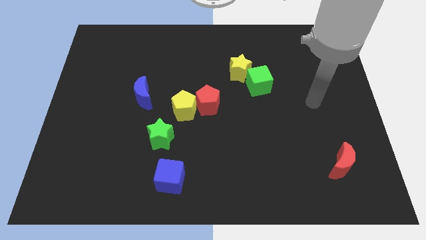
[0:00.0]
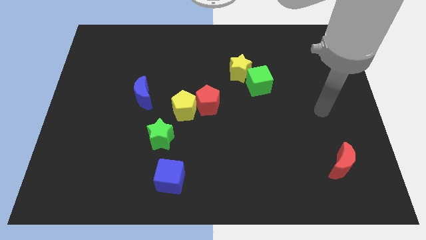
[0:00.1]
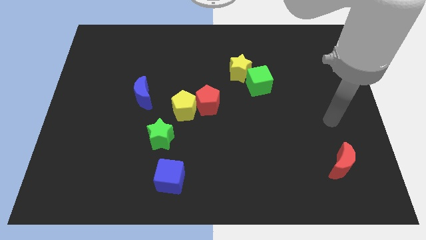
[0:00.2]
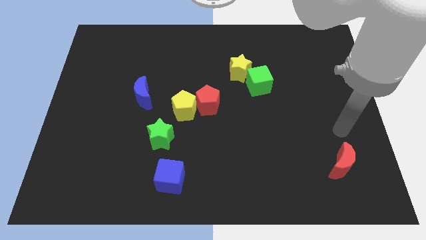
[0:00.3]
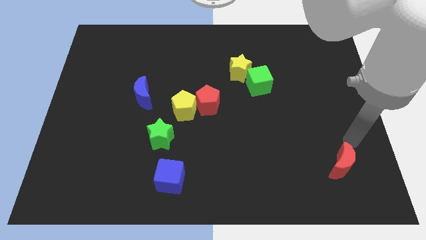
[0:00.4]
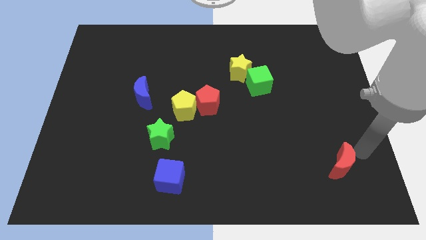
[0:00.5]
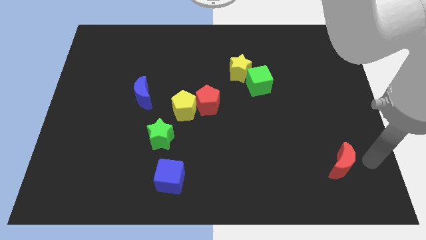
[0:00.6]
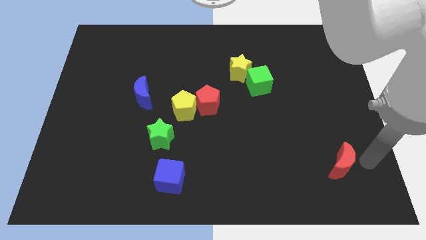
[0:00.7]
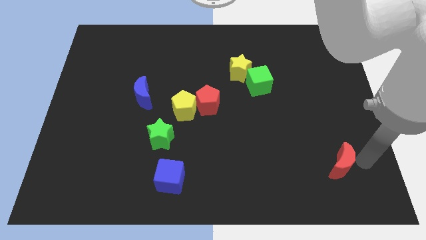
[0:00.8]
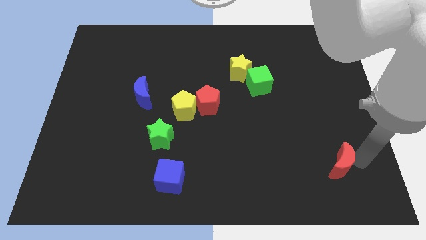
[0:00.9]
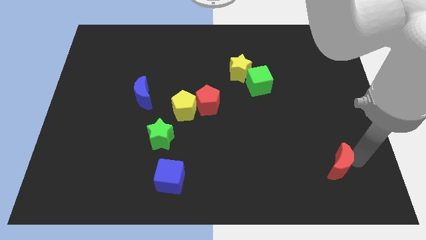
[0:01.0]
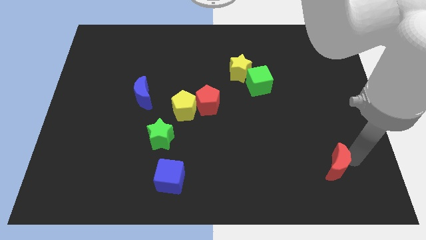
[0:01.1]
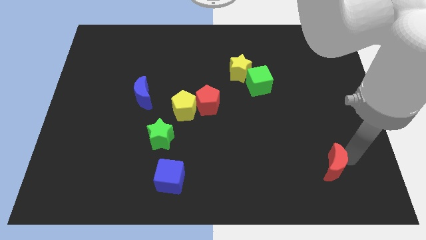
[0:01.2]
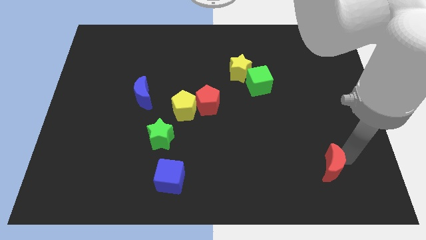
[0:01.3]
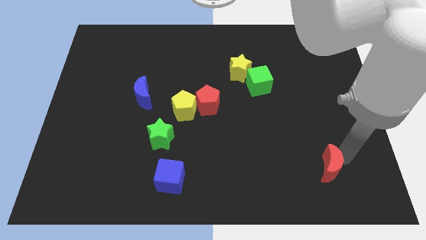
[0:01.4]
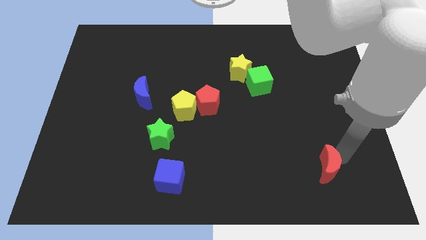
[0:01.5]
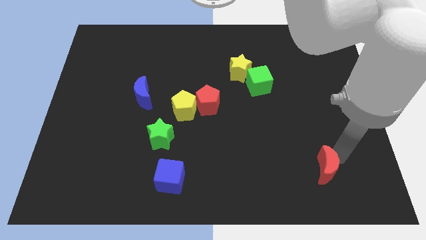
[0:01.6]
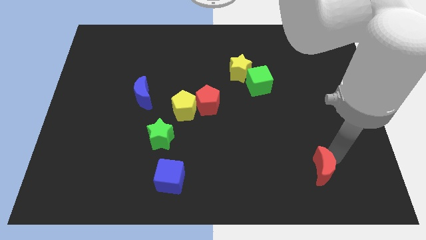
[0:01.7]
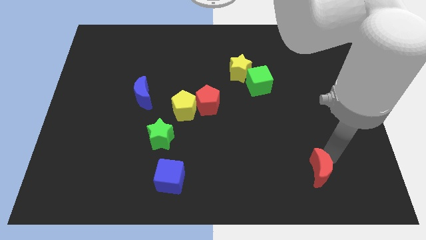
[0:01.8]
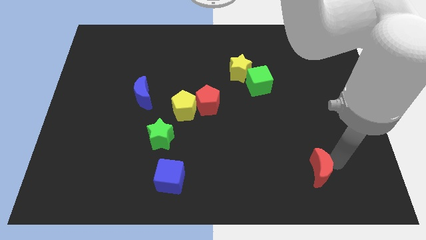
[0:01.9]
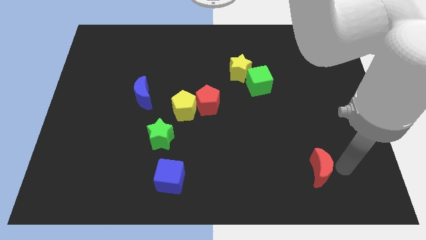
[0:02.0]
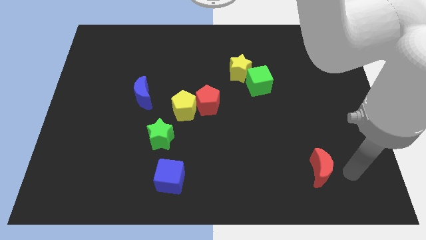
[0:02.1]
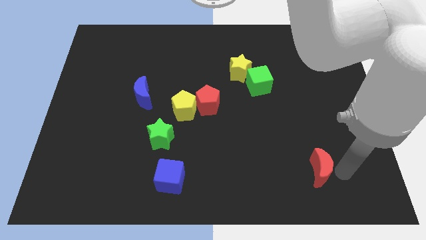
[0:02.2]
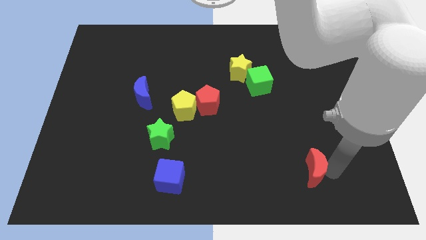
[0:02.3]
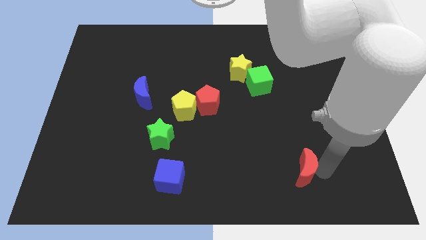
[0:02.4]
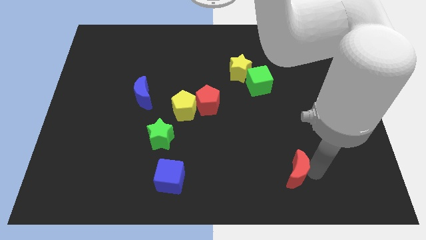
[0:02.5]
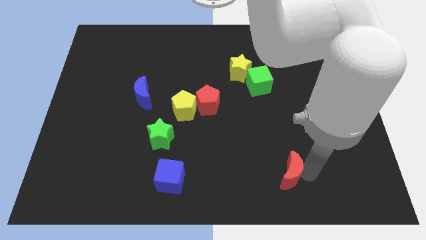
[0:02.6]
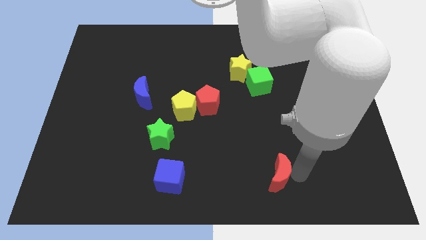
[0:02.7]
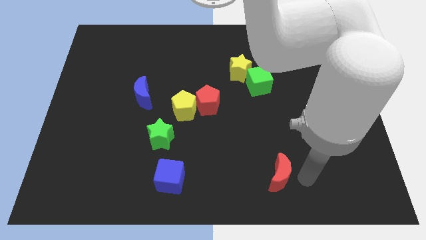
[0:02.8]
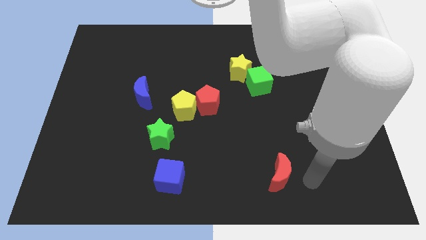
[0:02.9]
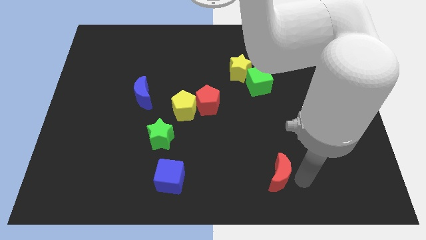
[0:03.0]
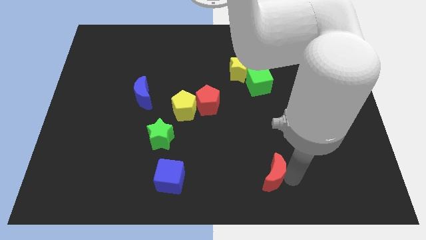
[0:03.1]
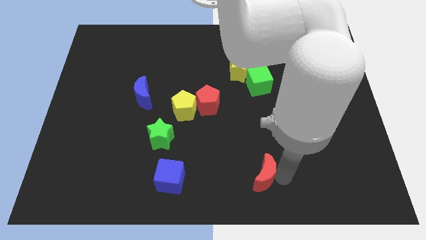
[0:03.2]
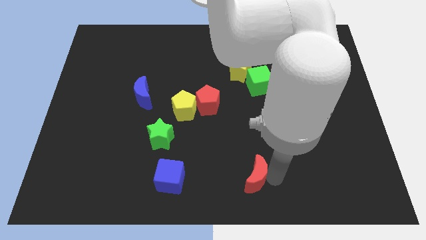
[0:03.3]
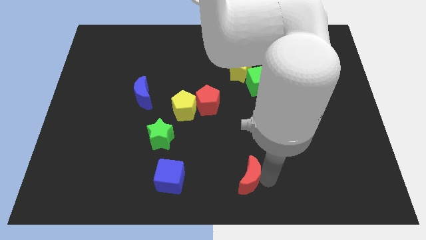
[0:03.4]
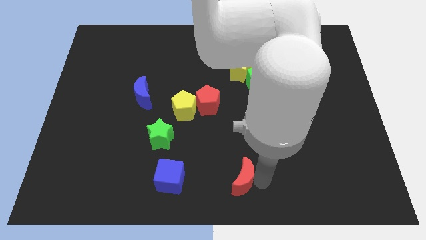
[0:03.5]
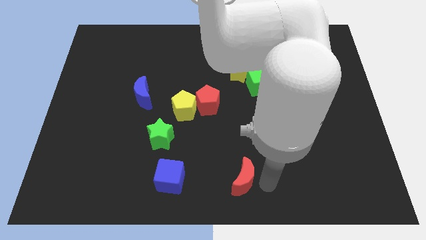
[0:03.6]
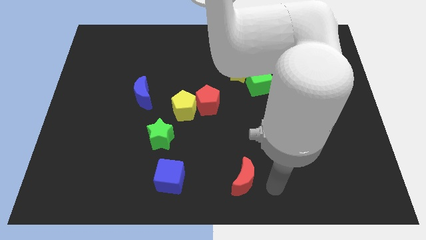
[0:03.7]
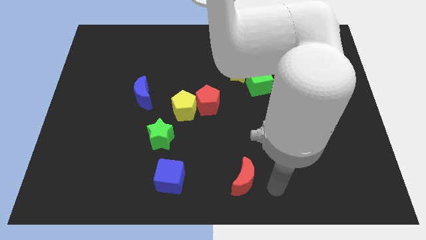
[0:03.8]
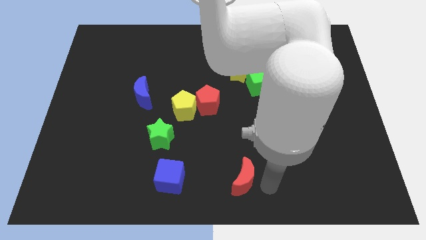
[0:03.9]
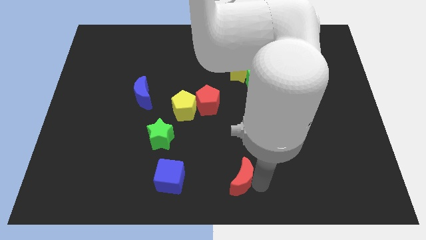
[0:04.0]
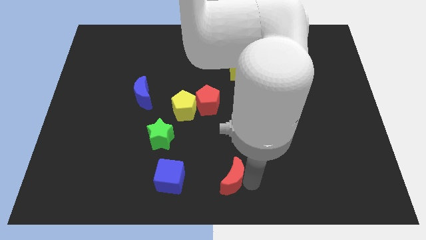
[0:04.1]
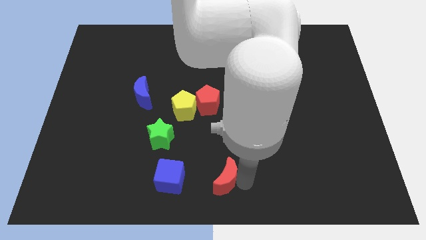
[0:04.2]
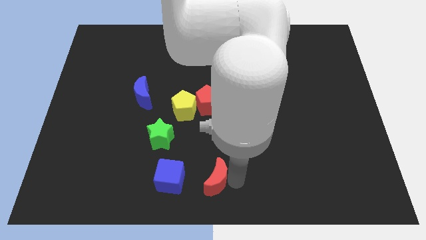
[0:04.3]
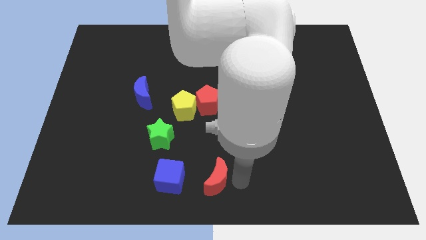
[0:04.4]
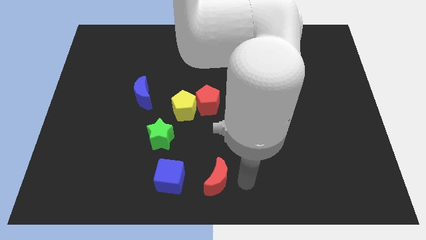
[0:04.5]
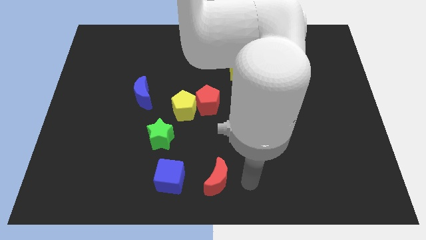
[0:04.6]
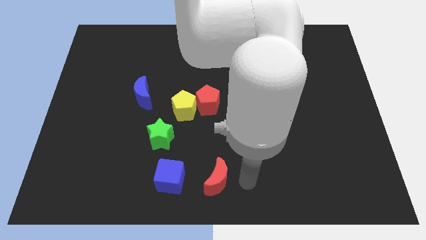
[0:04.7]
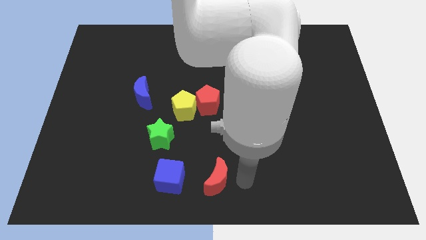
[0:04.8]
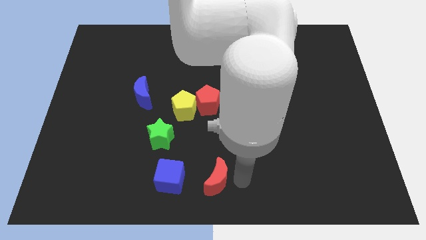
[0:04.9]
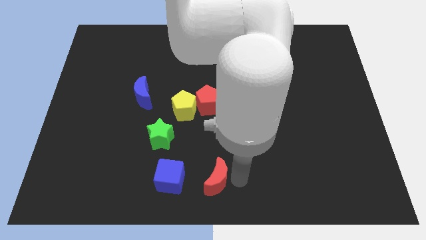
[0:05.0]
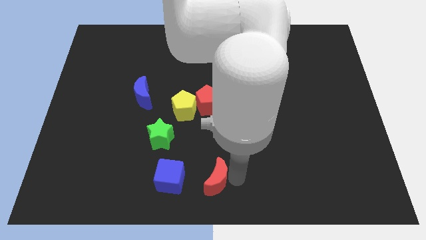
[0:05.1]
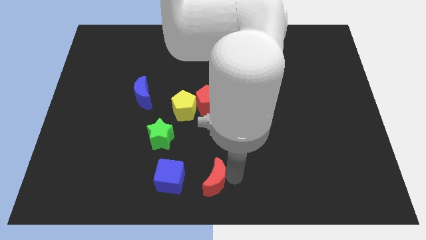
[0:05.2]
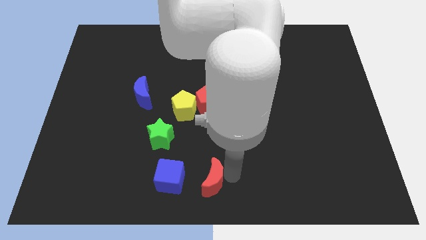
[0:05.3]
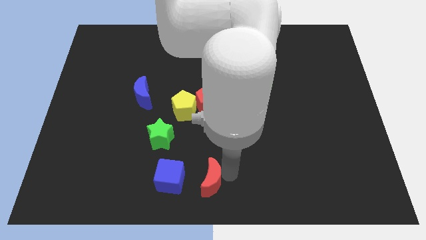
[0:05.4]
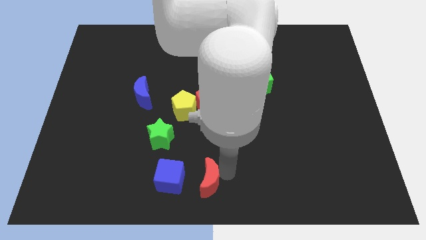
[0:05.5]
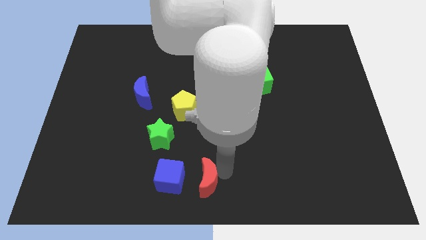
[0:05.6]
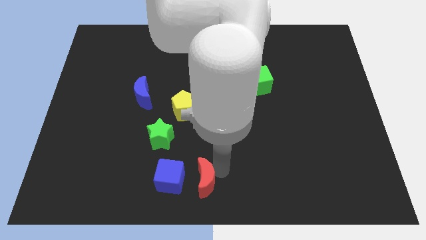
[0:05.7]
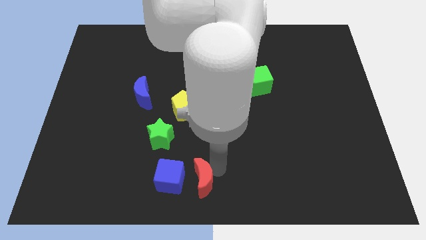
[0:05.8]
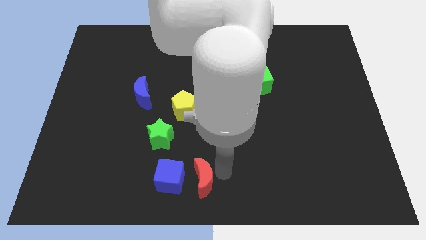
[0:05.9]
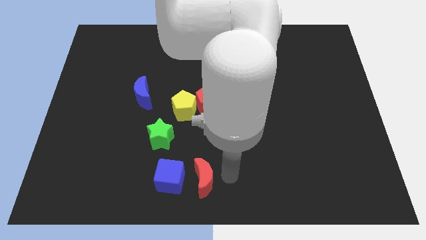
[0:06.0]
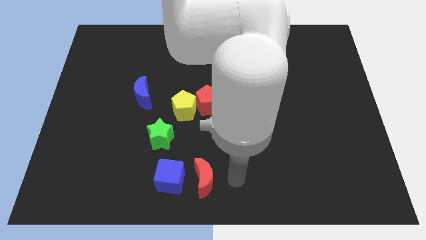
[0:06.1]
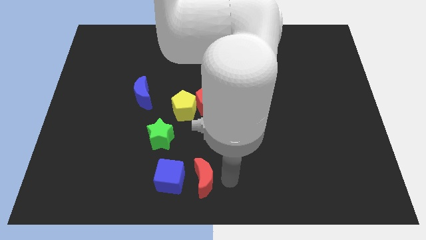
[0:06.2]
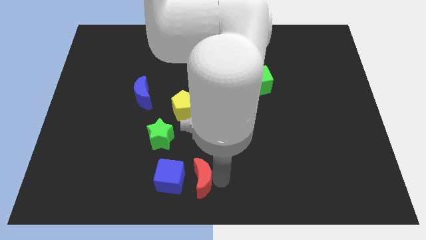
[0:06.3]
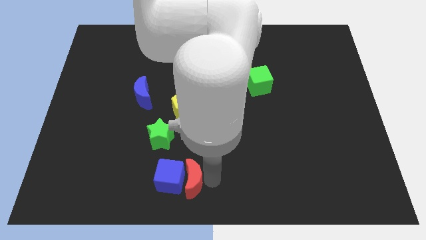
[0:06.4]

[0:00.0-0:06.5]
move the red moon towards the blue cube

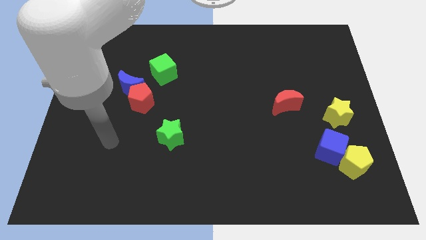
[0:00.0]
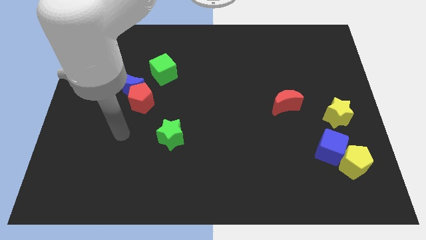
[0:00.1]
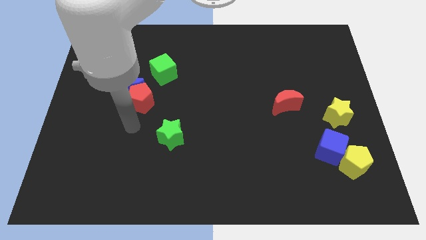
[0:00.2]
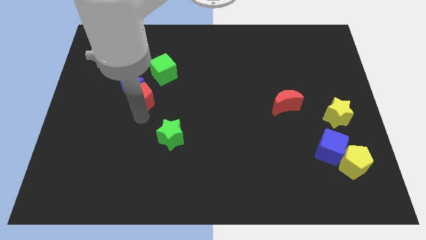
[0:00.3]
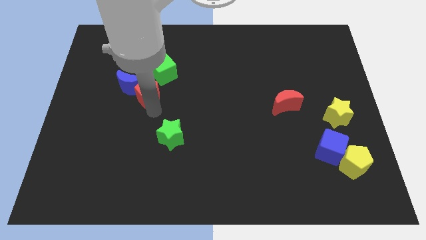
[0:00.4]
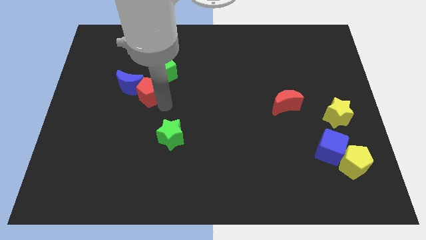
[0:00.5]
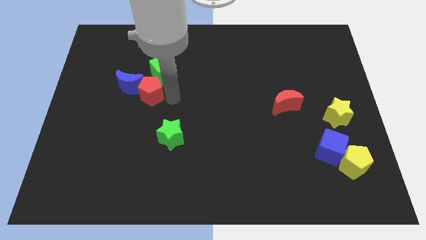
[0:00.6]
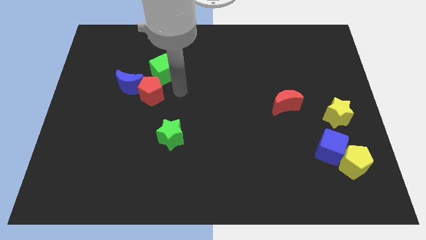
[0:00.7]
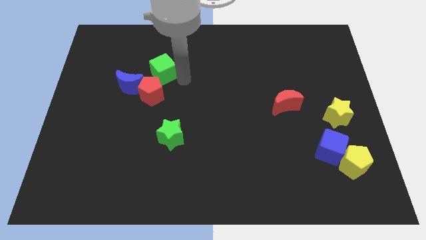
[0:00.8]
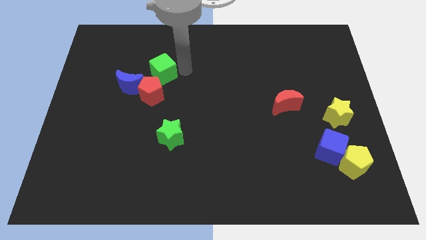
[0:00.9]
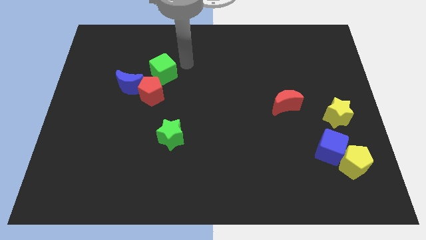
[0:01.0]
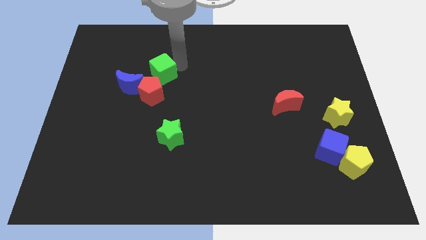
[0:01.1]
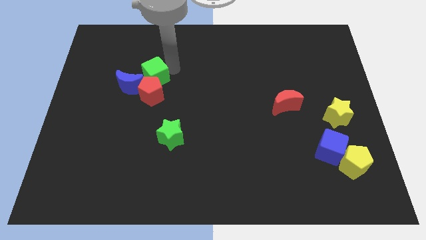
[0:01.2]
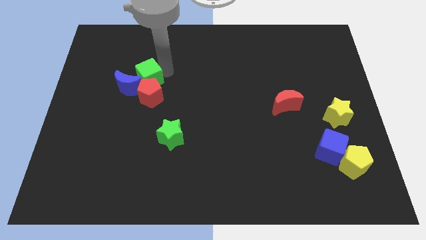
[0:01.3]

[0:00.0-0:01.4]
push the green cube to the blue moon
